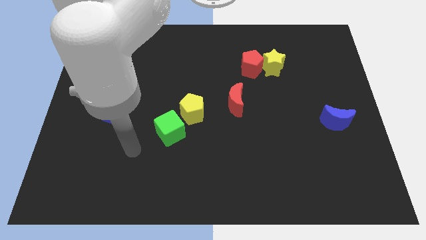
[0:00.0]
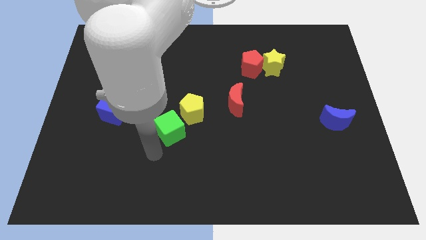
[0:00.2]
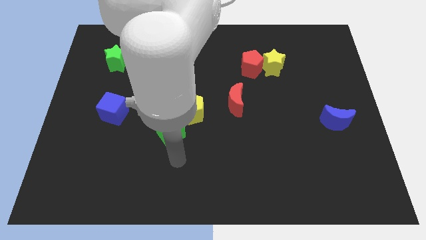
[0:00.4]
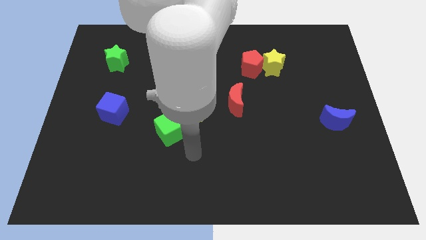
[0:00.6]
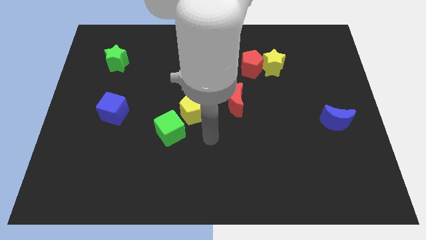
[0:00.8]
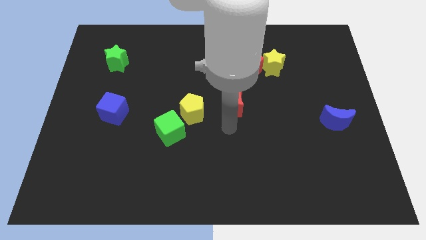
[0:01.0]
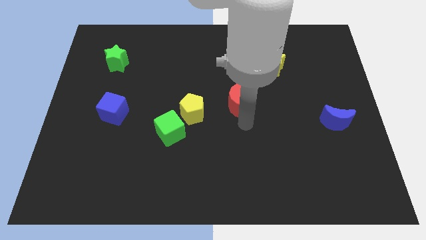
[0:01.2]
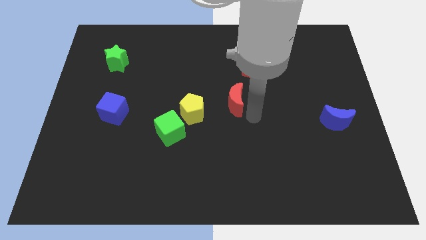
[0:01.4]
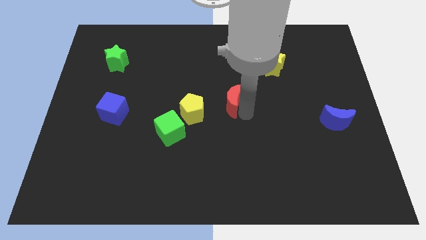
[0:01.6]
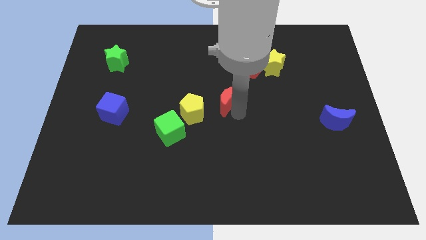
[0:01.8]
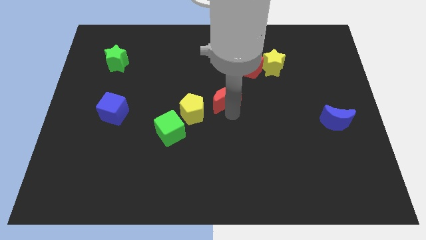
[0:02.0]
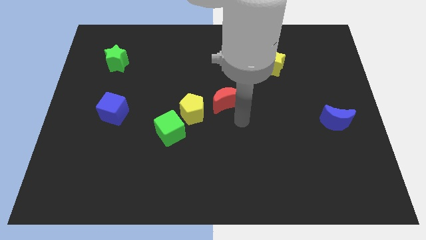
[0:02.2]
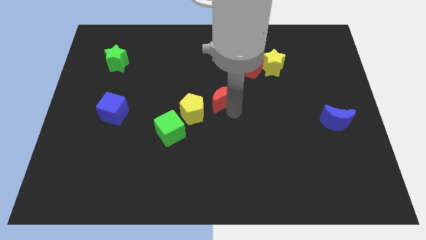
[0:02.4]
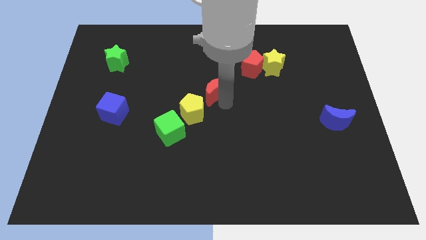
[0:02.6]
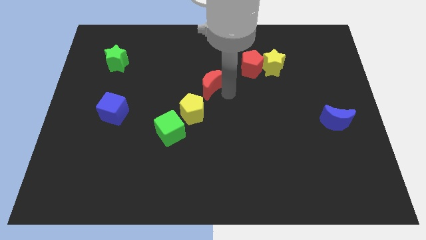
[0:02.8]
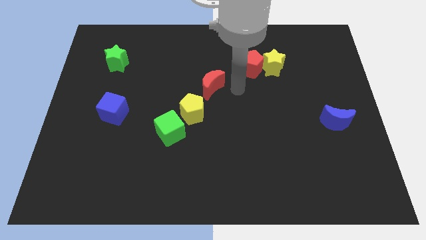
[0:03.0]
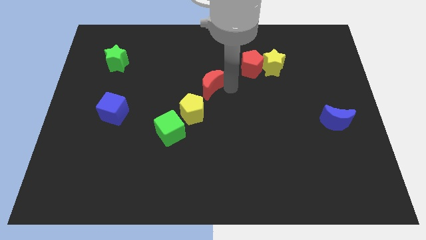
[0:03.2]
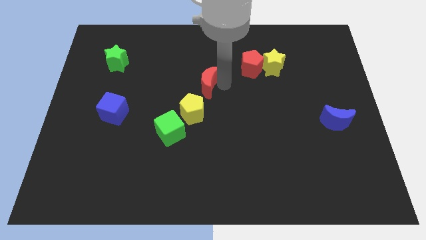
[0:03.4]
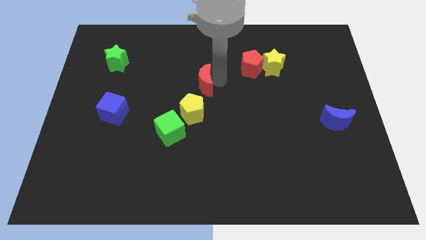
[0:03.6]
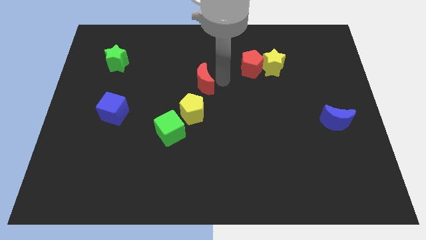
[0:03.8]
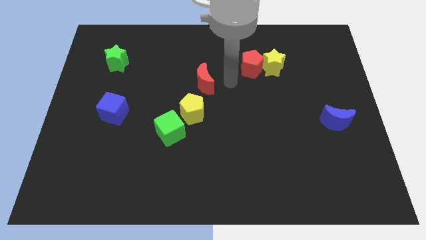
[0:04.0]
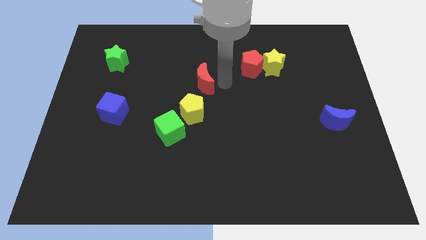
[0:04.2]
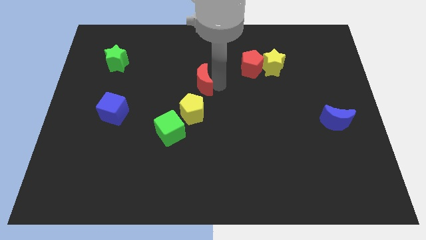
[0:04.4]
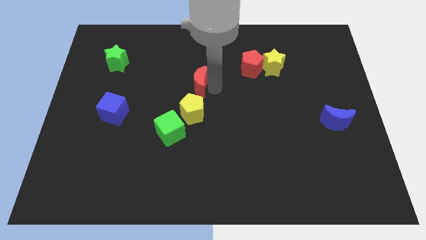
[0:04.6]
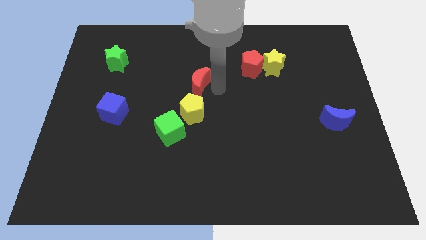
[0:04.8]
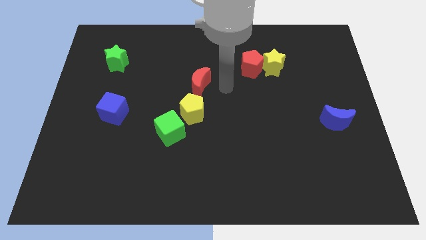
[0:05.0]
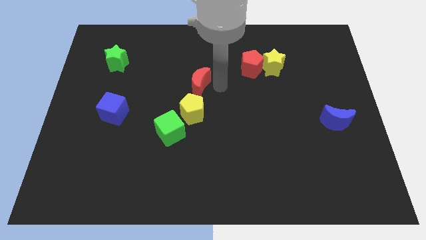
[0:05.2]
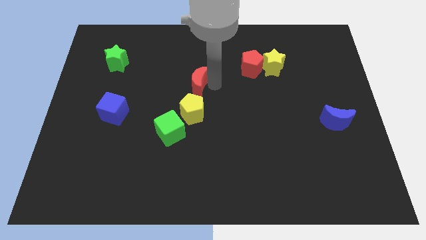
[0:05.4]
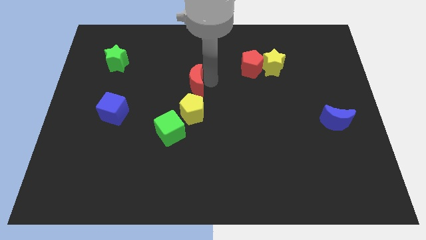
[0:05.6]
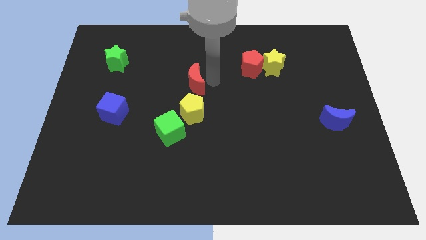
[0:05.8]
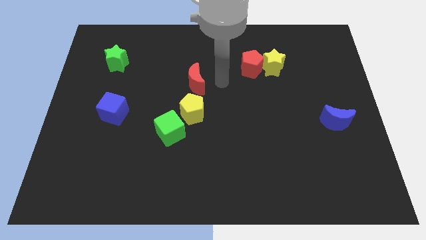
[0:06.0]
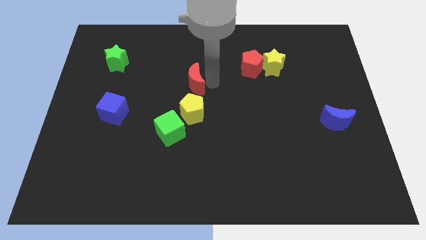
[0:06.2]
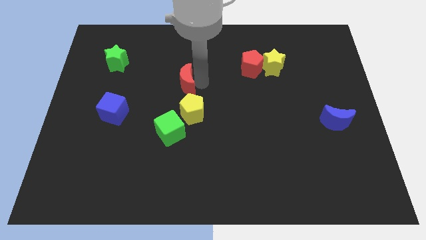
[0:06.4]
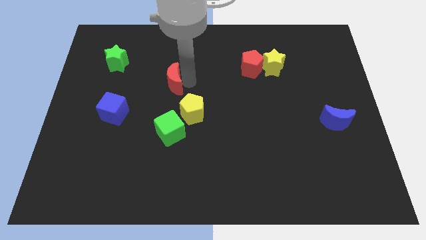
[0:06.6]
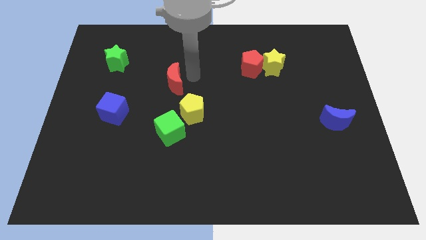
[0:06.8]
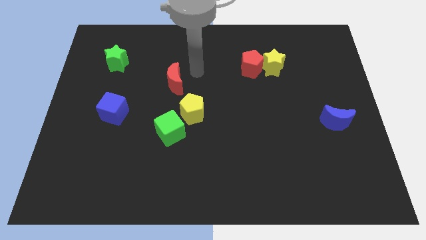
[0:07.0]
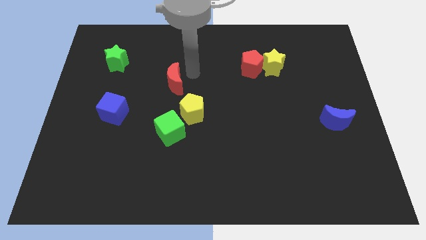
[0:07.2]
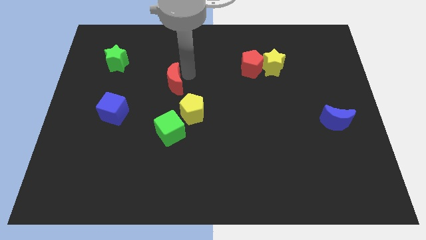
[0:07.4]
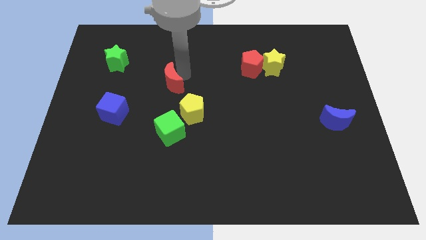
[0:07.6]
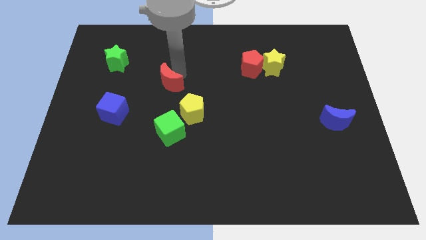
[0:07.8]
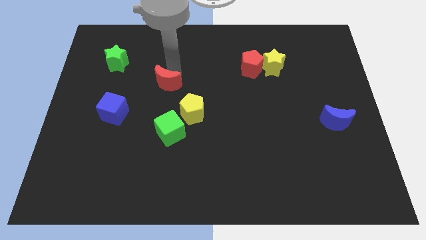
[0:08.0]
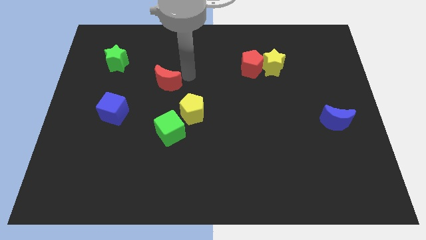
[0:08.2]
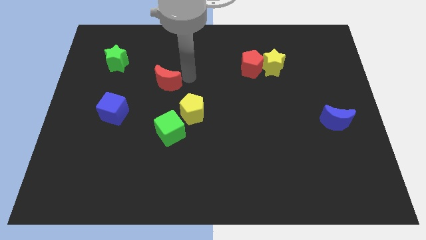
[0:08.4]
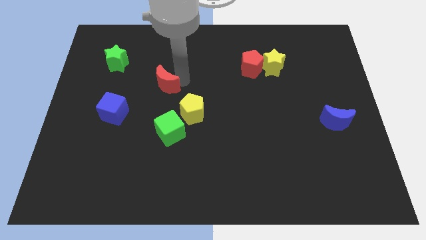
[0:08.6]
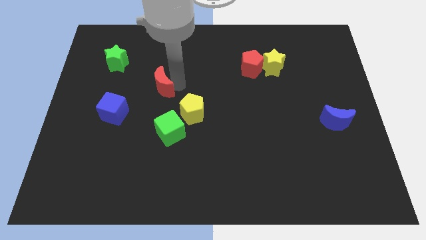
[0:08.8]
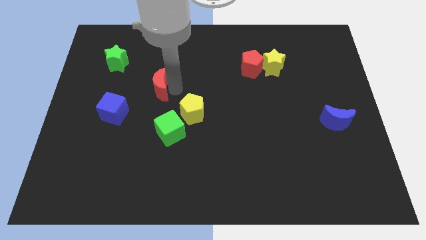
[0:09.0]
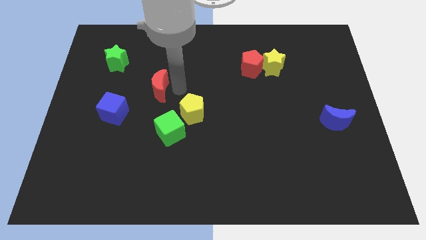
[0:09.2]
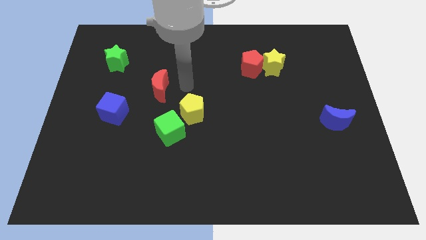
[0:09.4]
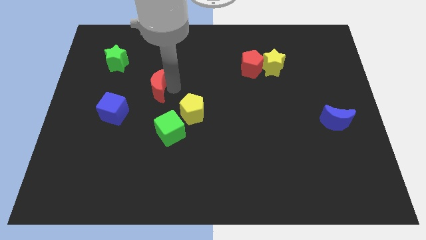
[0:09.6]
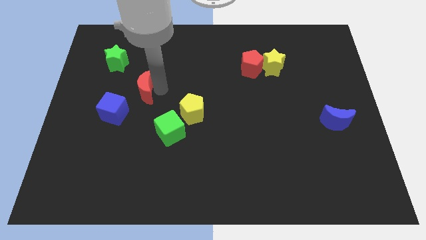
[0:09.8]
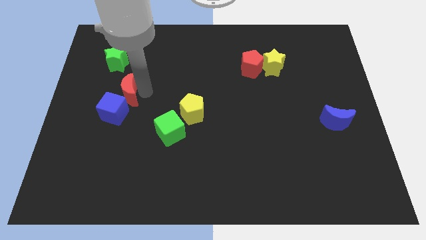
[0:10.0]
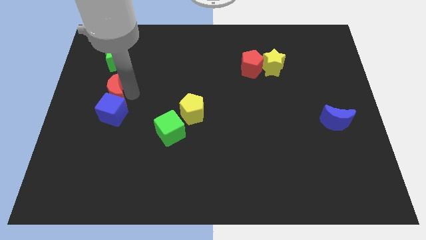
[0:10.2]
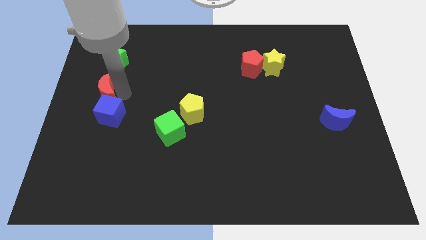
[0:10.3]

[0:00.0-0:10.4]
slide the red moon to the left side of the board
